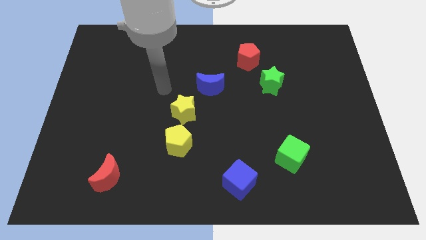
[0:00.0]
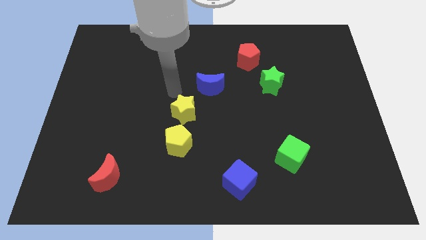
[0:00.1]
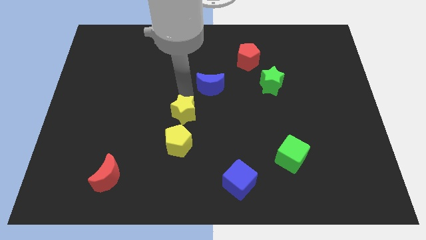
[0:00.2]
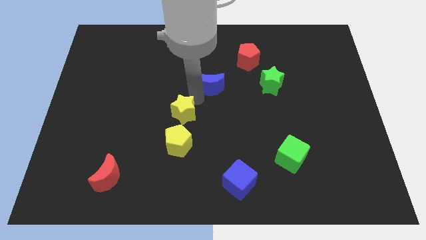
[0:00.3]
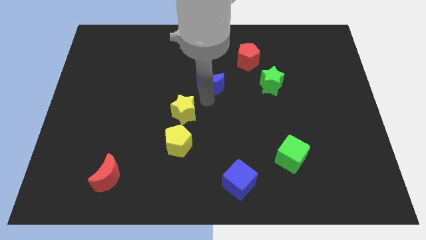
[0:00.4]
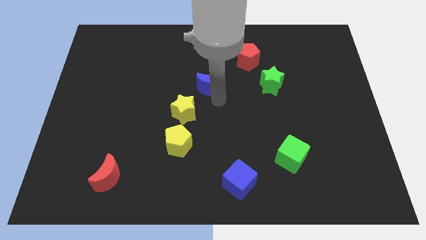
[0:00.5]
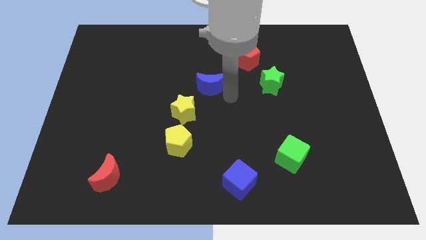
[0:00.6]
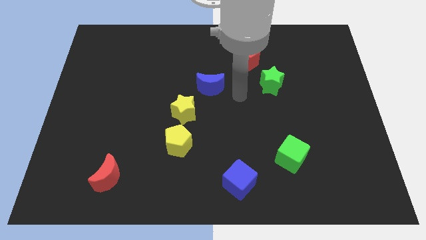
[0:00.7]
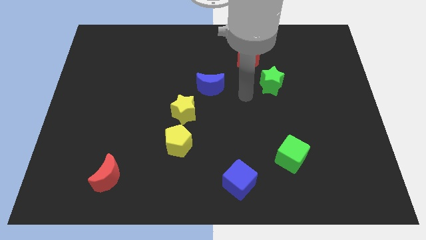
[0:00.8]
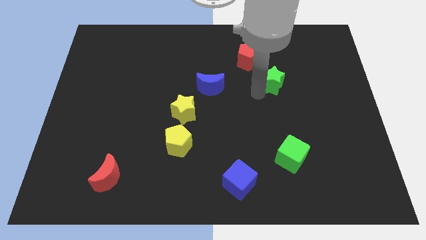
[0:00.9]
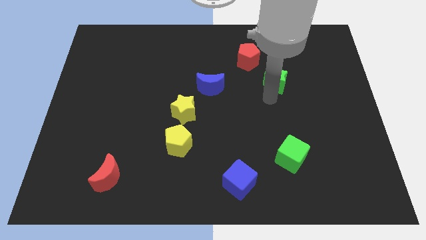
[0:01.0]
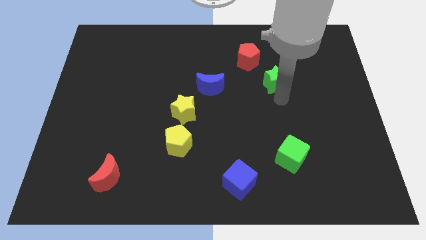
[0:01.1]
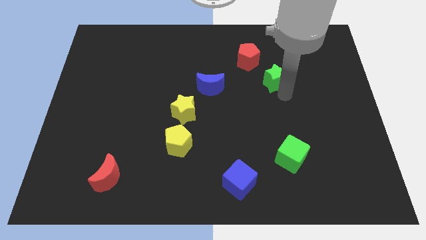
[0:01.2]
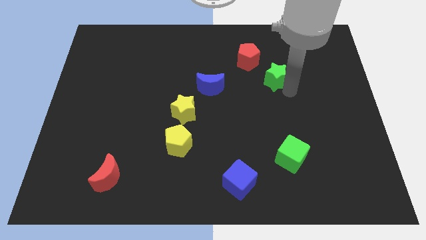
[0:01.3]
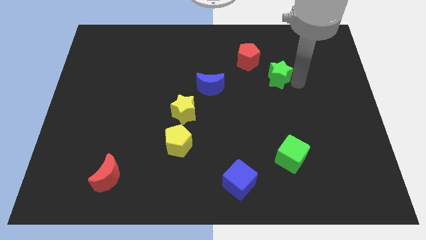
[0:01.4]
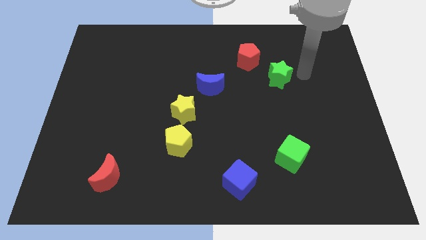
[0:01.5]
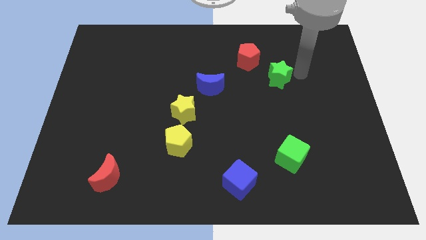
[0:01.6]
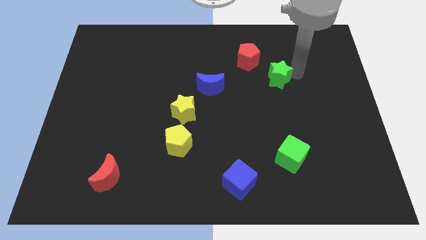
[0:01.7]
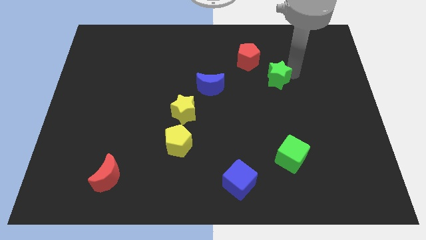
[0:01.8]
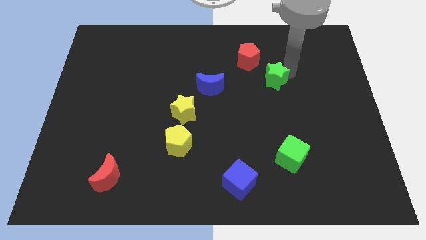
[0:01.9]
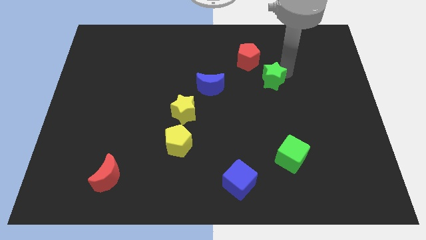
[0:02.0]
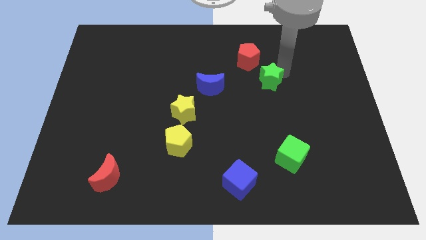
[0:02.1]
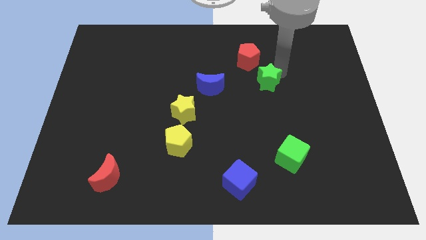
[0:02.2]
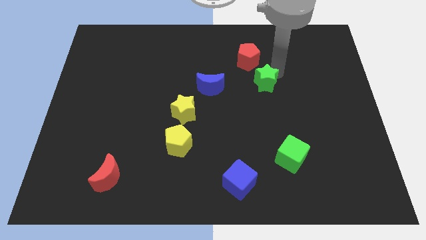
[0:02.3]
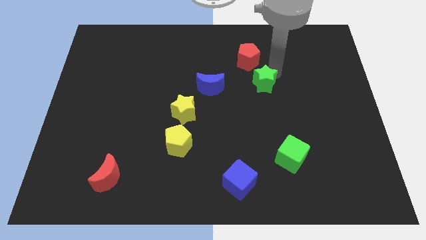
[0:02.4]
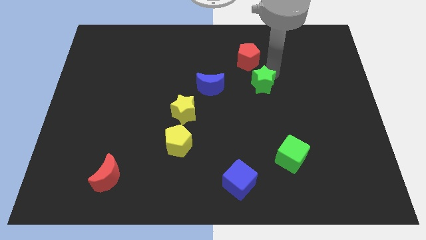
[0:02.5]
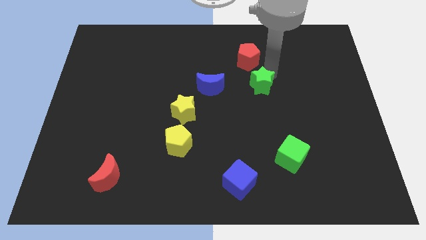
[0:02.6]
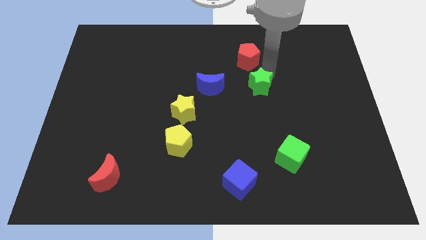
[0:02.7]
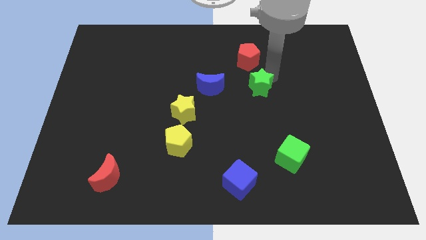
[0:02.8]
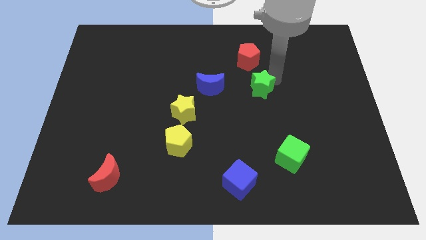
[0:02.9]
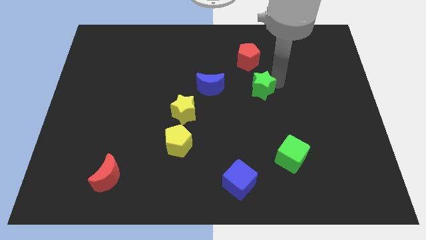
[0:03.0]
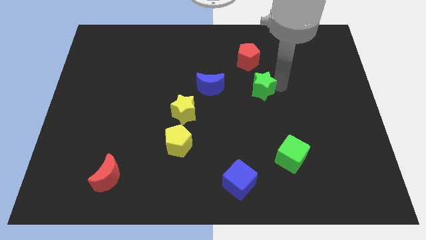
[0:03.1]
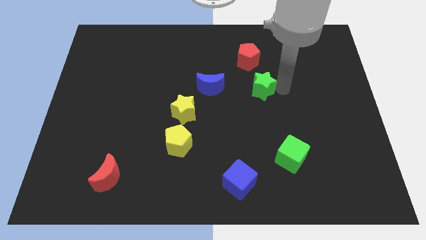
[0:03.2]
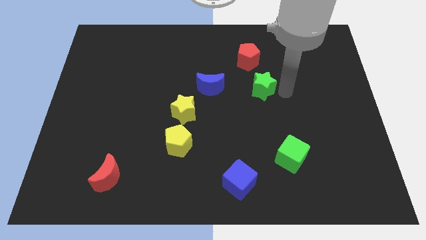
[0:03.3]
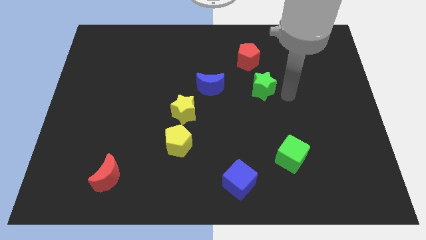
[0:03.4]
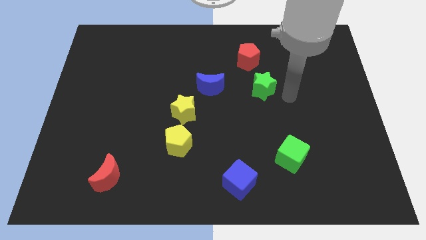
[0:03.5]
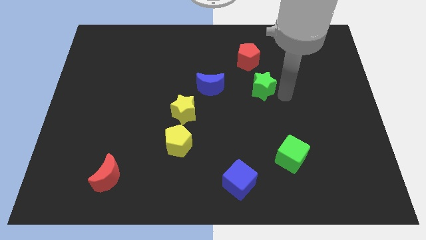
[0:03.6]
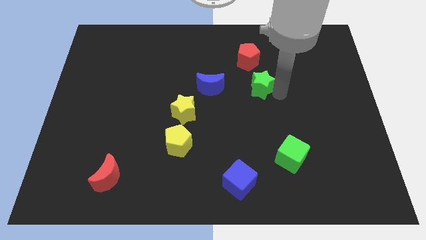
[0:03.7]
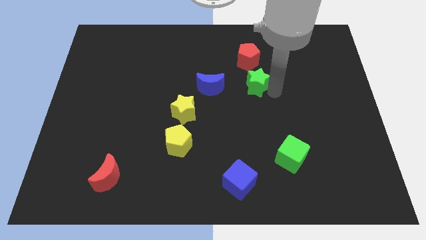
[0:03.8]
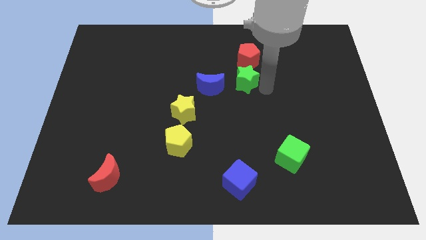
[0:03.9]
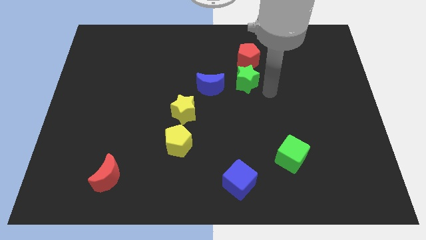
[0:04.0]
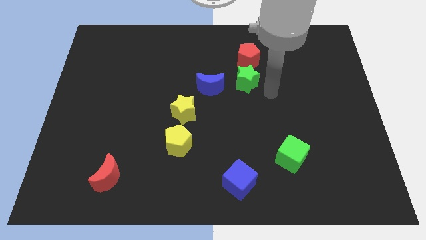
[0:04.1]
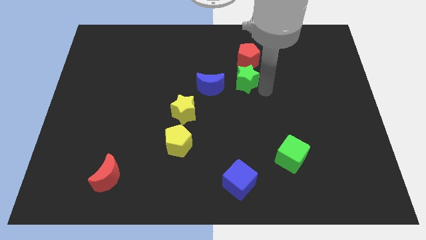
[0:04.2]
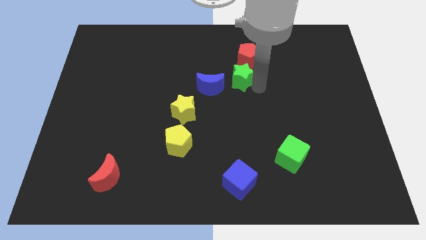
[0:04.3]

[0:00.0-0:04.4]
slightly slide the green star left

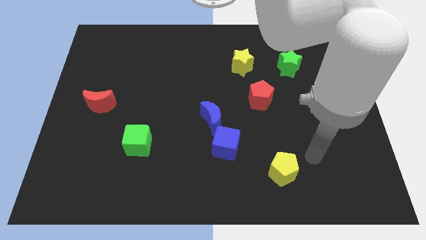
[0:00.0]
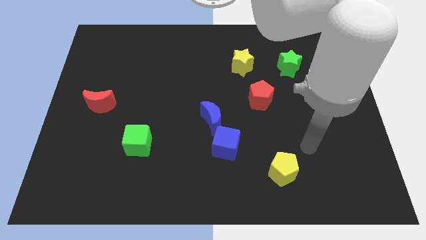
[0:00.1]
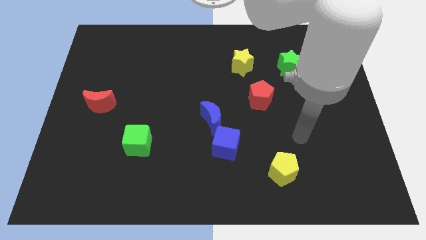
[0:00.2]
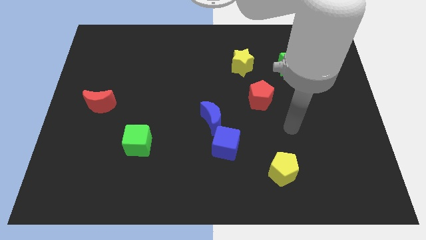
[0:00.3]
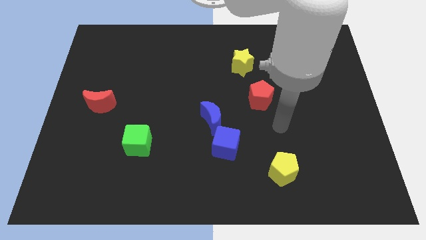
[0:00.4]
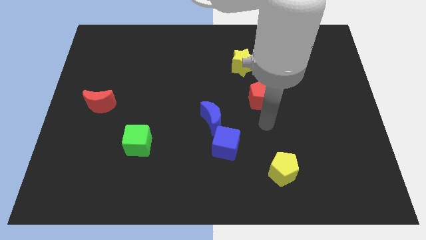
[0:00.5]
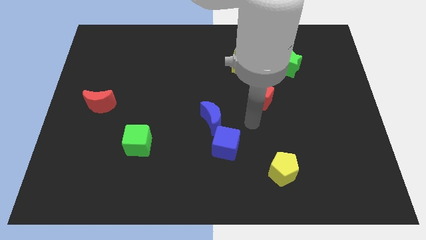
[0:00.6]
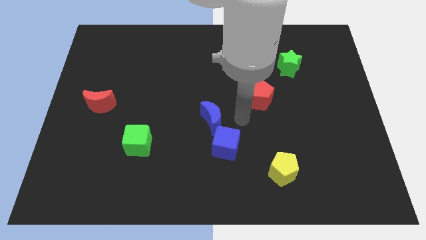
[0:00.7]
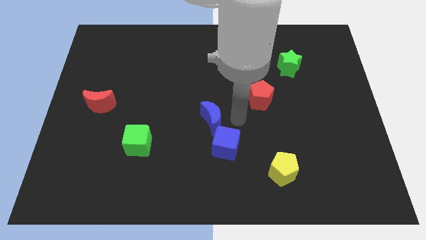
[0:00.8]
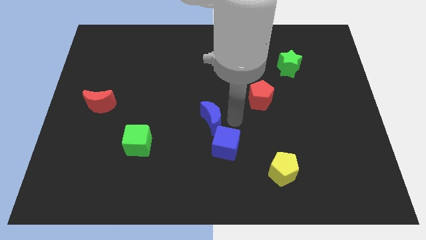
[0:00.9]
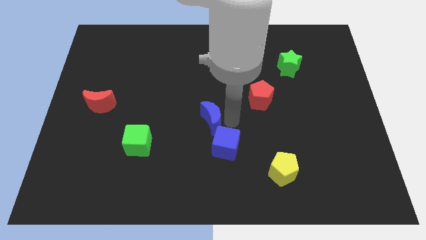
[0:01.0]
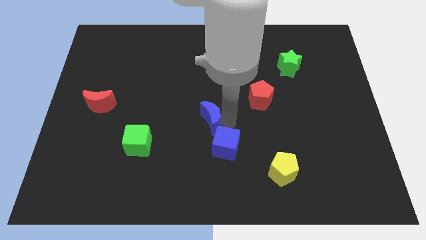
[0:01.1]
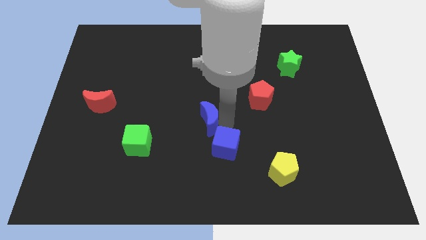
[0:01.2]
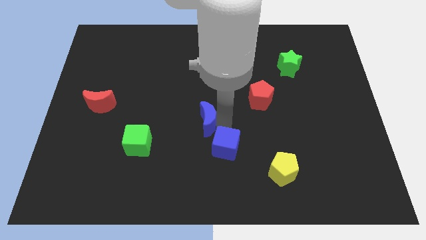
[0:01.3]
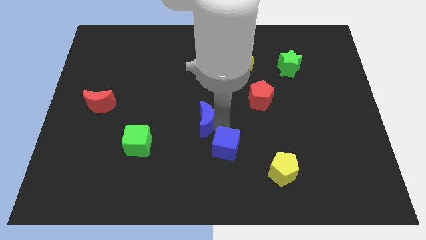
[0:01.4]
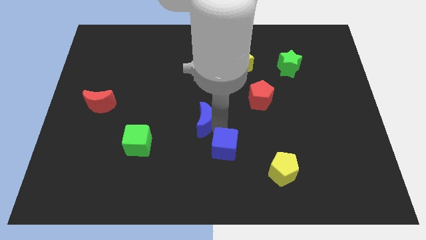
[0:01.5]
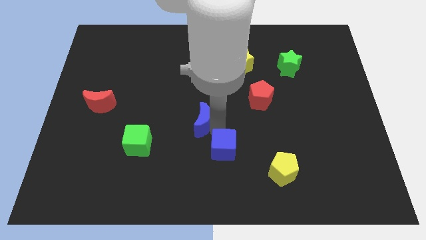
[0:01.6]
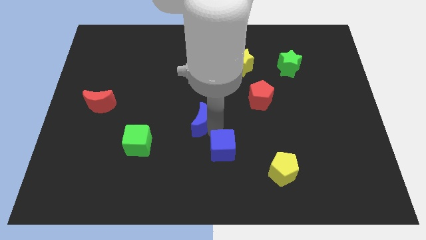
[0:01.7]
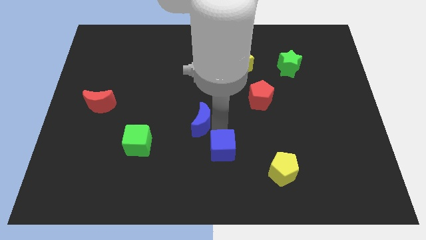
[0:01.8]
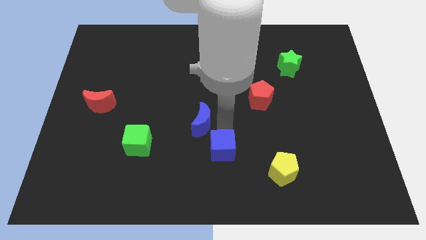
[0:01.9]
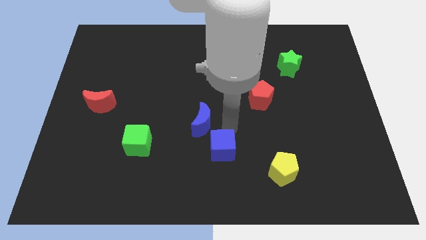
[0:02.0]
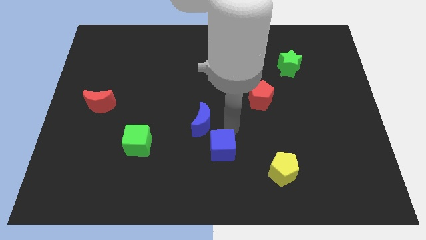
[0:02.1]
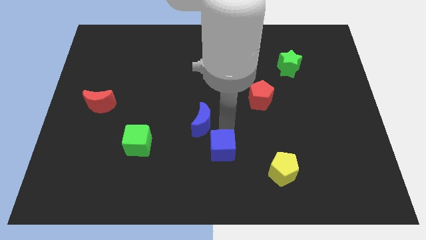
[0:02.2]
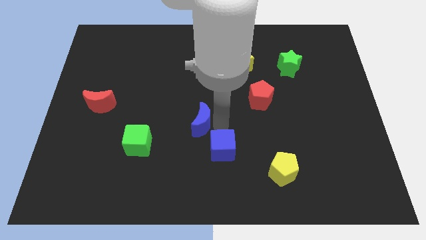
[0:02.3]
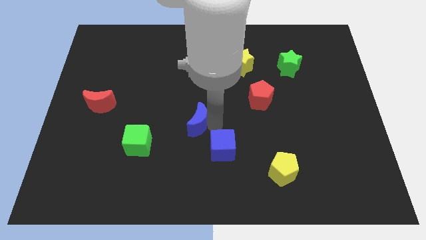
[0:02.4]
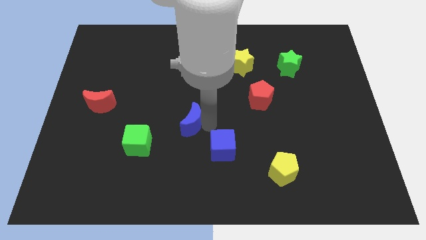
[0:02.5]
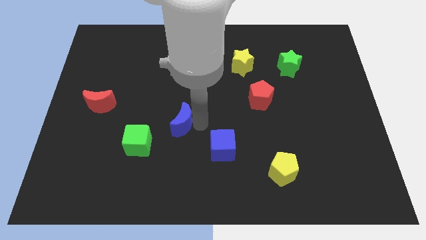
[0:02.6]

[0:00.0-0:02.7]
slightly slide the blue moon to the left

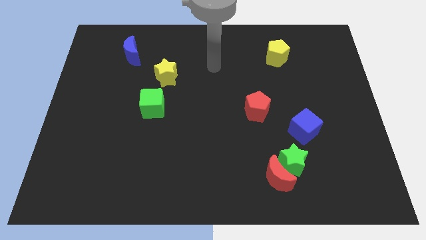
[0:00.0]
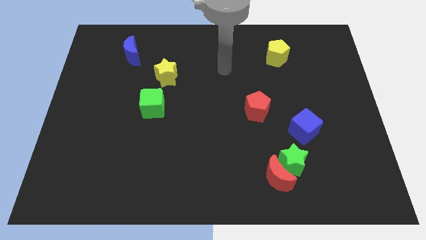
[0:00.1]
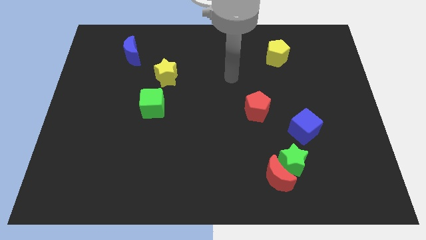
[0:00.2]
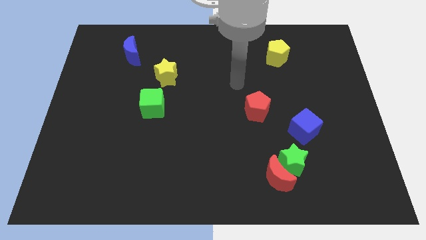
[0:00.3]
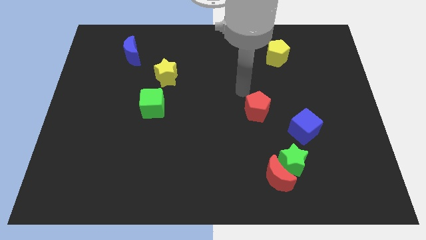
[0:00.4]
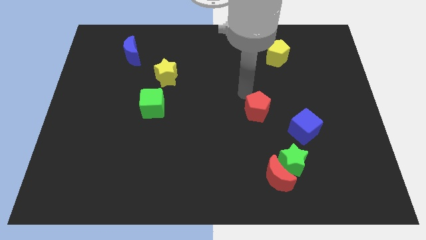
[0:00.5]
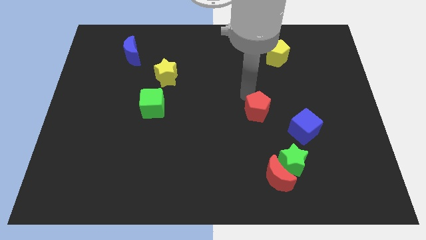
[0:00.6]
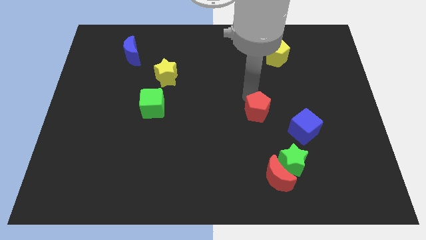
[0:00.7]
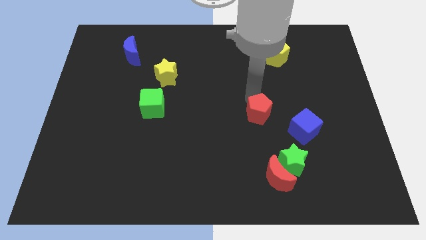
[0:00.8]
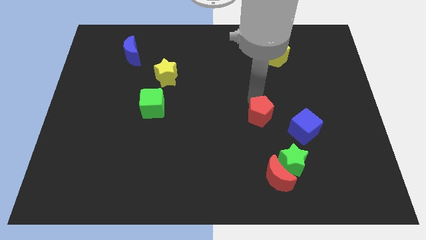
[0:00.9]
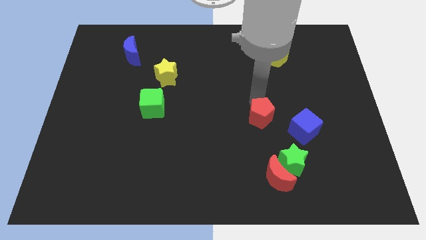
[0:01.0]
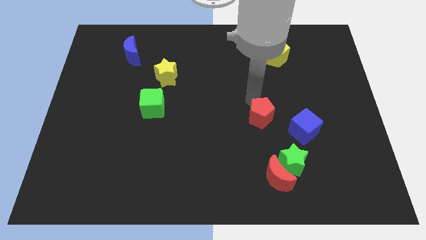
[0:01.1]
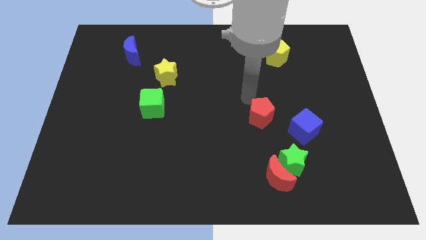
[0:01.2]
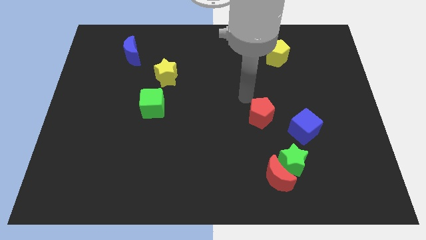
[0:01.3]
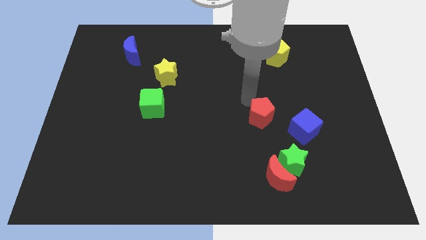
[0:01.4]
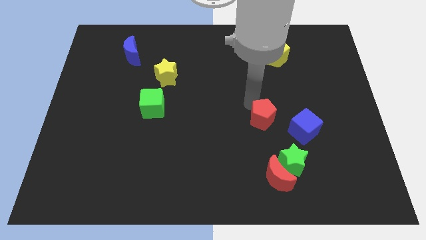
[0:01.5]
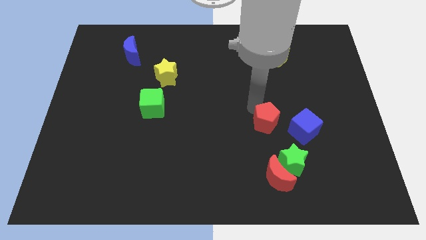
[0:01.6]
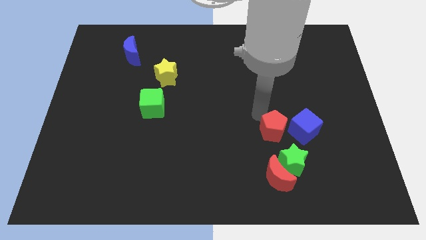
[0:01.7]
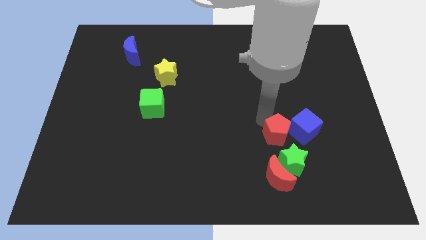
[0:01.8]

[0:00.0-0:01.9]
slightly push the red pentagon downwards and right diagonally
